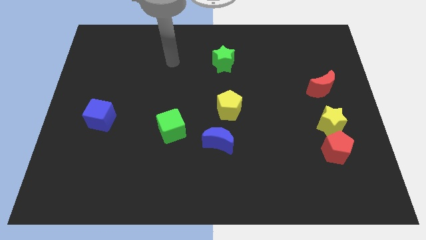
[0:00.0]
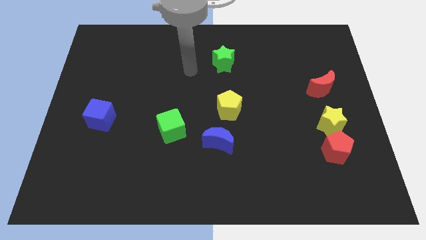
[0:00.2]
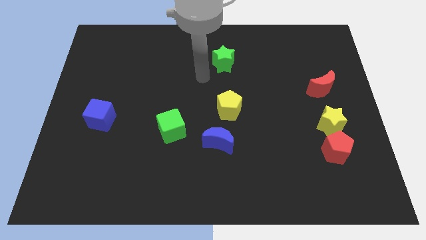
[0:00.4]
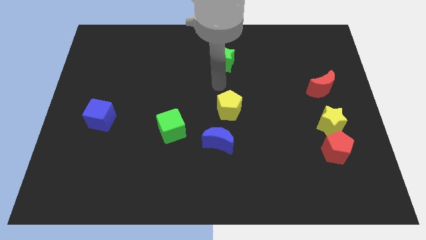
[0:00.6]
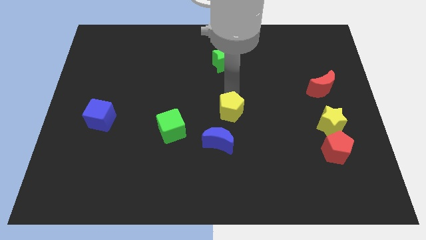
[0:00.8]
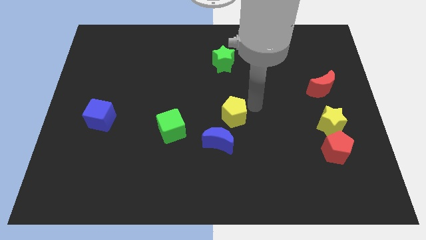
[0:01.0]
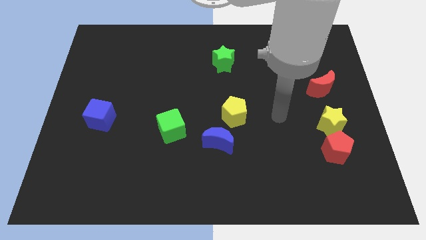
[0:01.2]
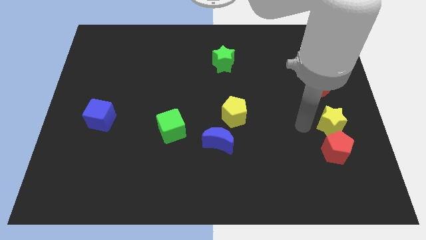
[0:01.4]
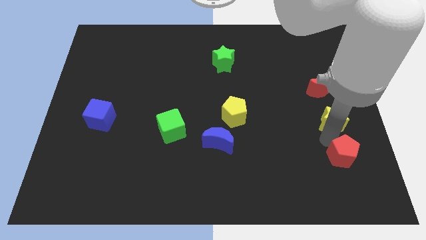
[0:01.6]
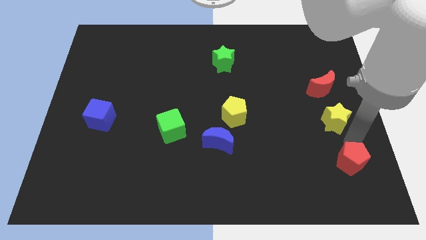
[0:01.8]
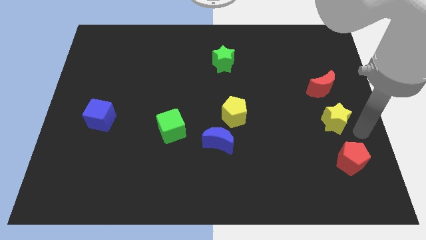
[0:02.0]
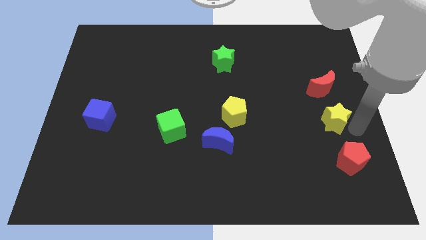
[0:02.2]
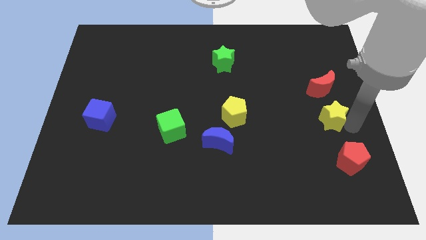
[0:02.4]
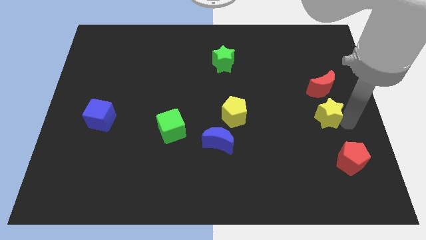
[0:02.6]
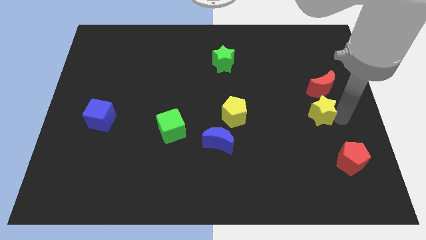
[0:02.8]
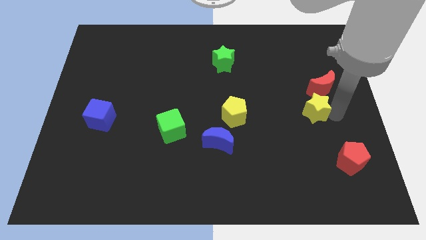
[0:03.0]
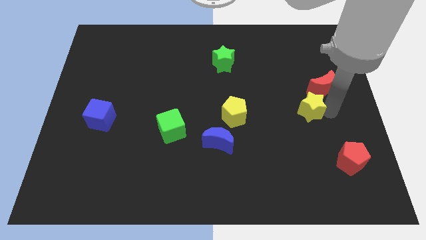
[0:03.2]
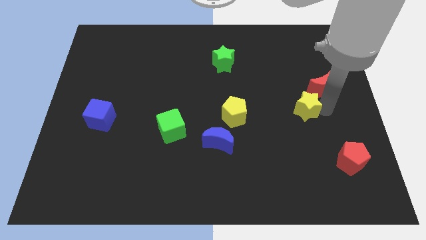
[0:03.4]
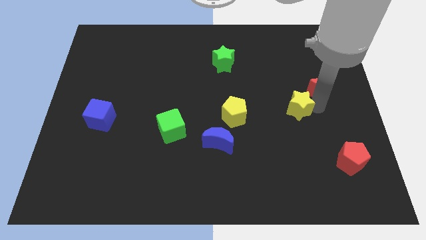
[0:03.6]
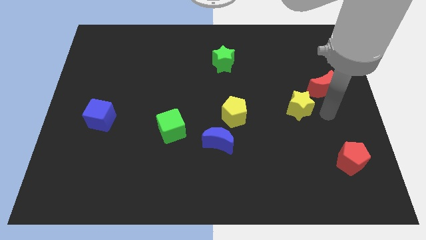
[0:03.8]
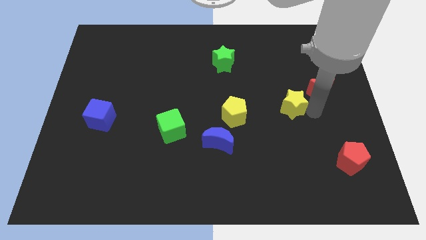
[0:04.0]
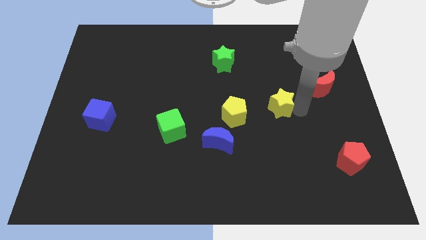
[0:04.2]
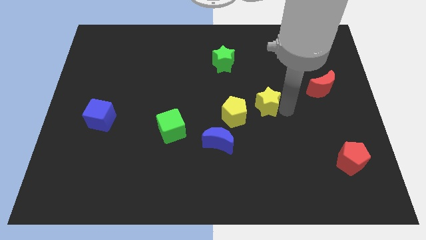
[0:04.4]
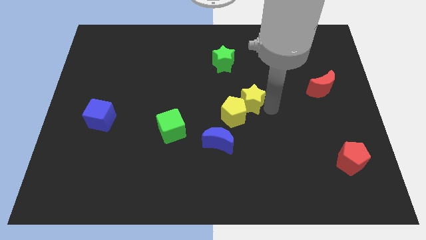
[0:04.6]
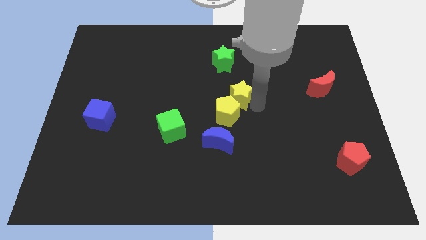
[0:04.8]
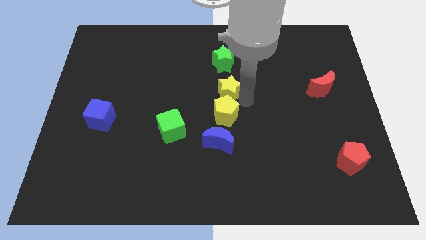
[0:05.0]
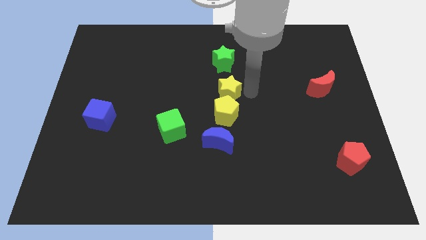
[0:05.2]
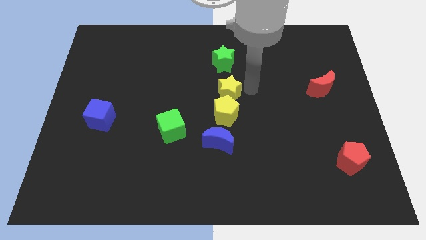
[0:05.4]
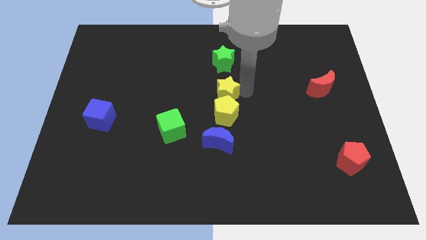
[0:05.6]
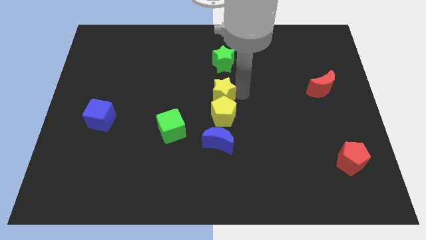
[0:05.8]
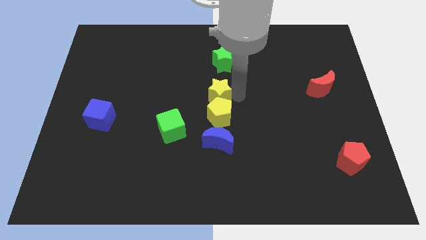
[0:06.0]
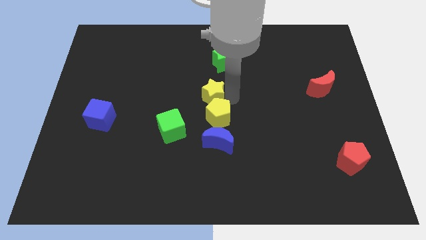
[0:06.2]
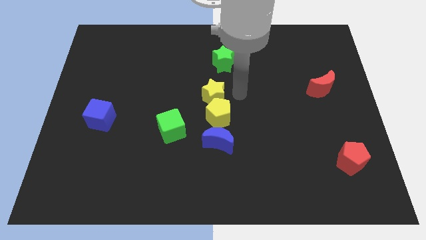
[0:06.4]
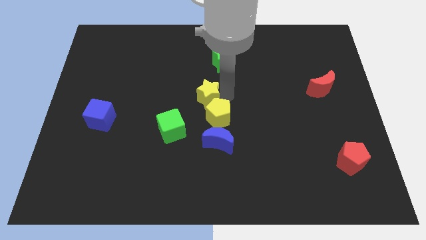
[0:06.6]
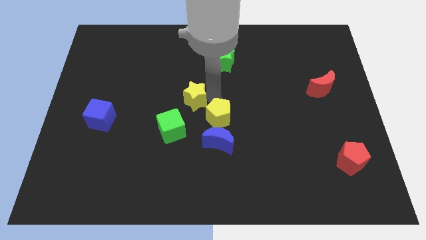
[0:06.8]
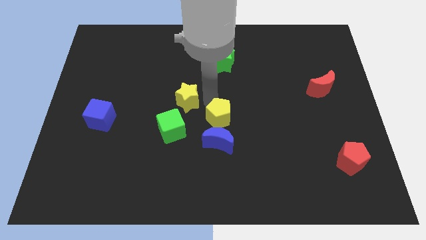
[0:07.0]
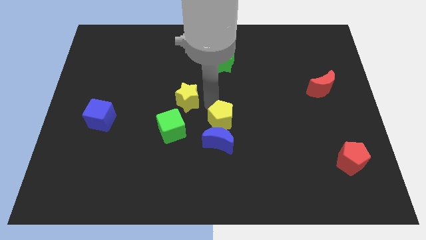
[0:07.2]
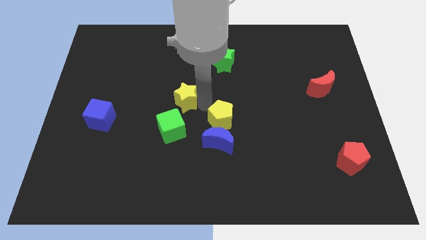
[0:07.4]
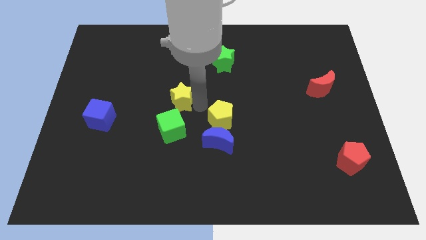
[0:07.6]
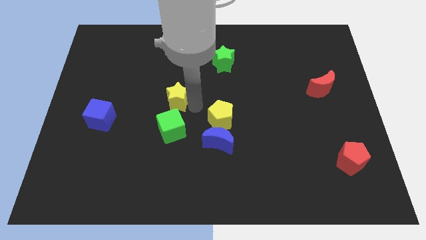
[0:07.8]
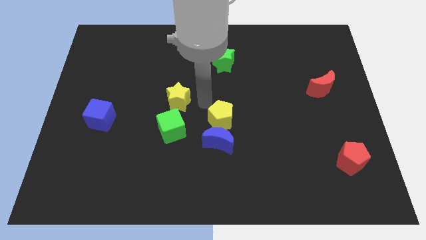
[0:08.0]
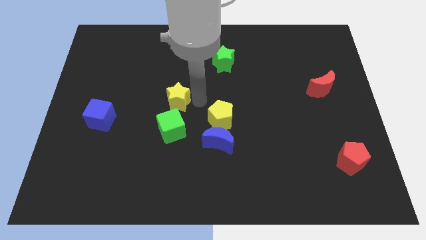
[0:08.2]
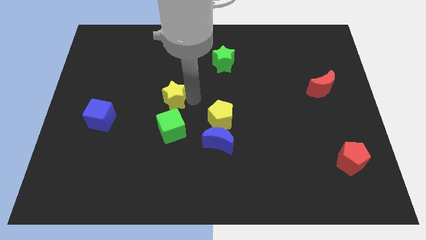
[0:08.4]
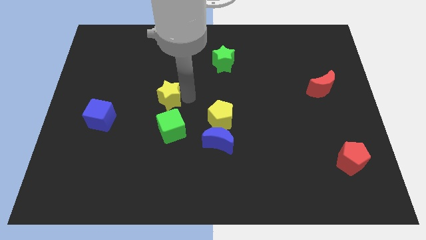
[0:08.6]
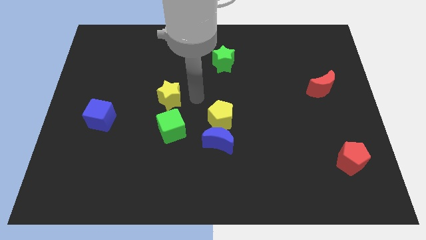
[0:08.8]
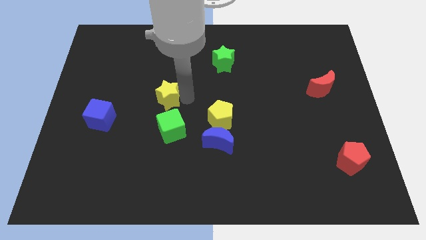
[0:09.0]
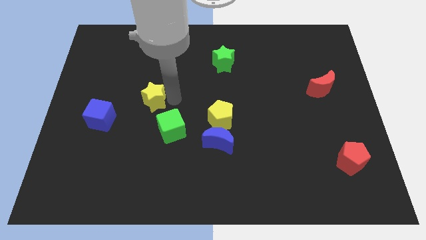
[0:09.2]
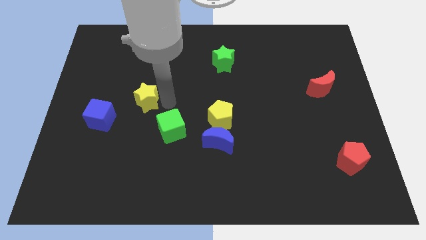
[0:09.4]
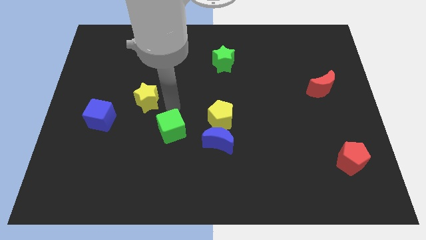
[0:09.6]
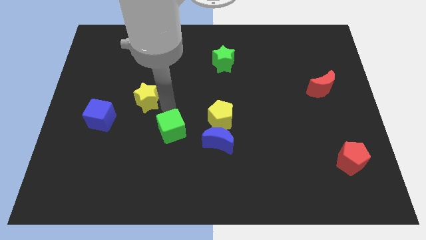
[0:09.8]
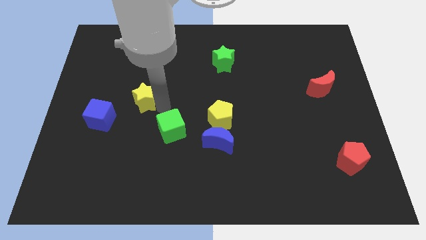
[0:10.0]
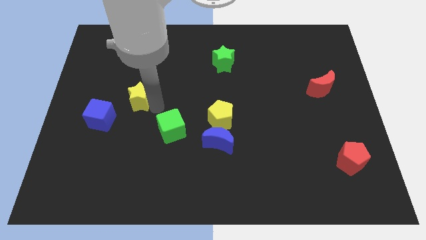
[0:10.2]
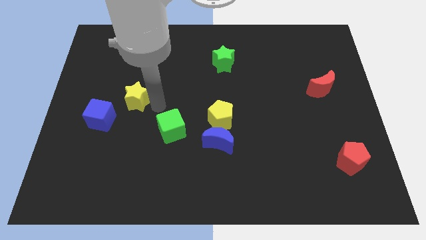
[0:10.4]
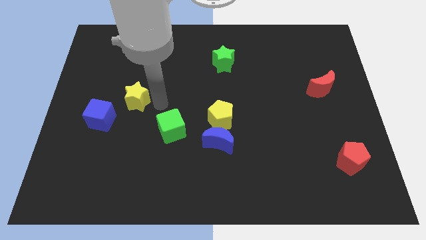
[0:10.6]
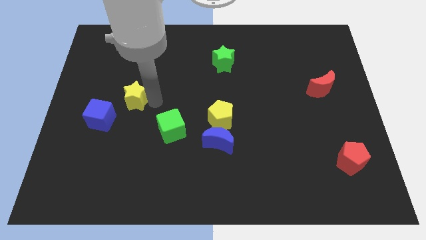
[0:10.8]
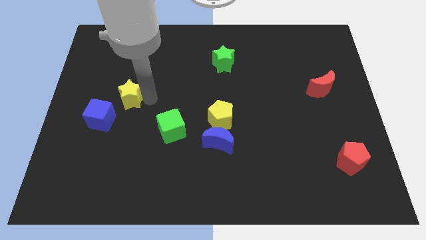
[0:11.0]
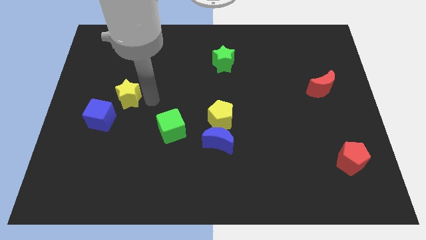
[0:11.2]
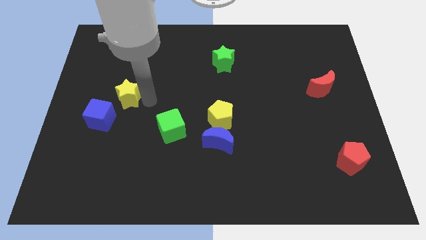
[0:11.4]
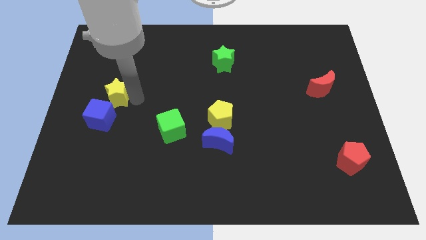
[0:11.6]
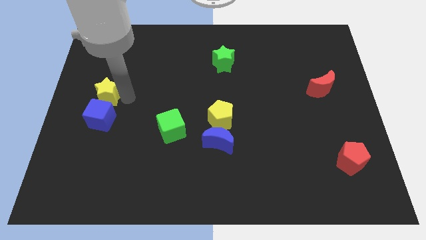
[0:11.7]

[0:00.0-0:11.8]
slide the yellow star to the center left

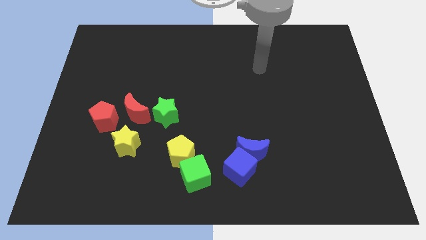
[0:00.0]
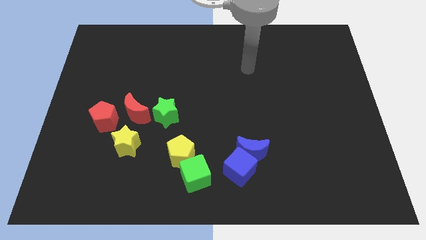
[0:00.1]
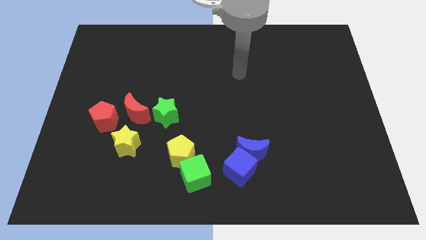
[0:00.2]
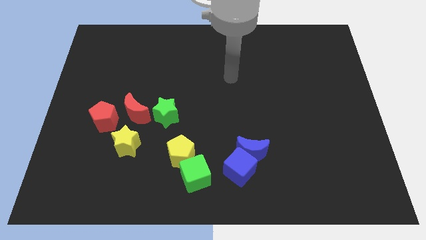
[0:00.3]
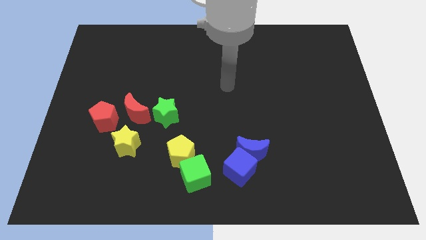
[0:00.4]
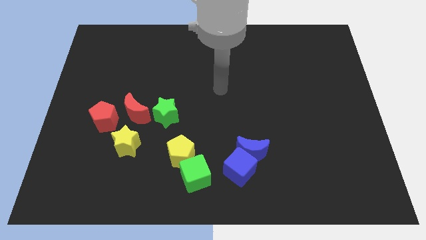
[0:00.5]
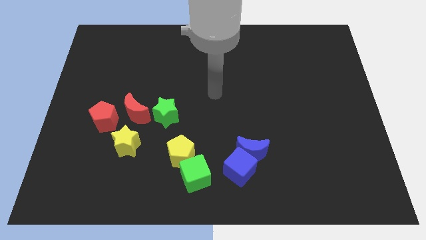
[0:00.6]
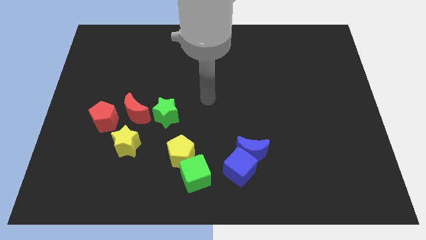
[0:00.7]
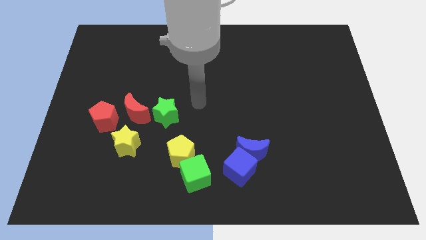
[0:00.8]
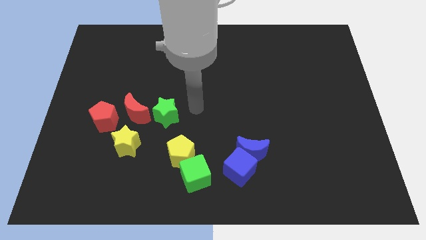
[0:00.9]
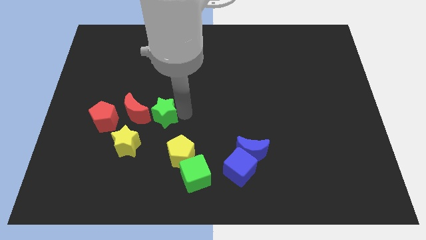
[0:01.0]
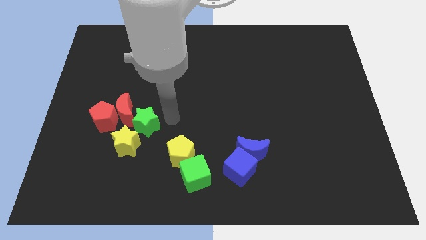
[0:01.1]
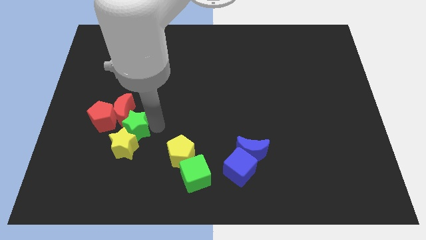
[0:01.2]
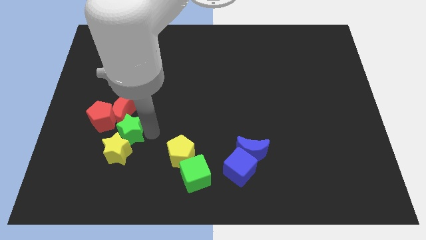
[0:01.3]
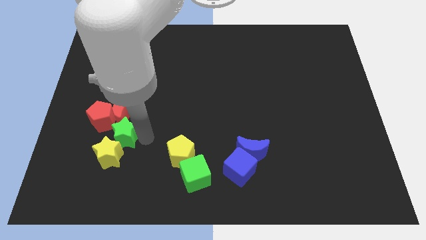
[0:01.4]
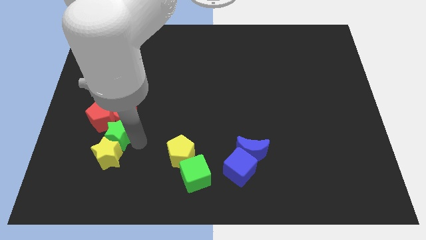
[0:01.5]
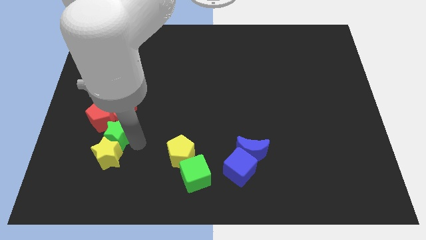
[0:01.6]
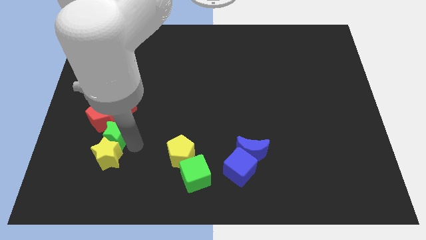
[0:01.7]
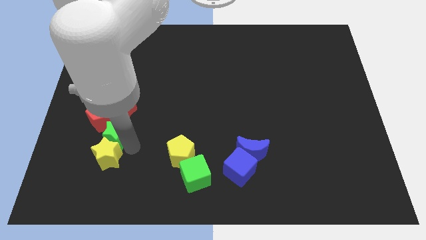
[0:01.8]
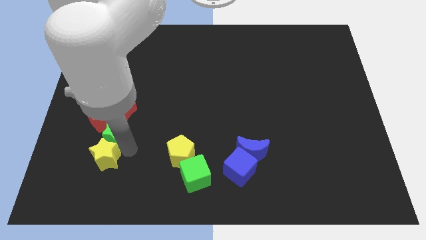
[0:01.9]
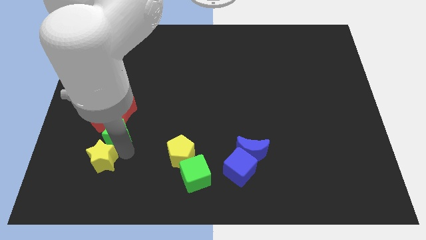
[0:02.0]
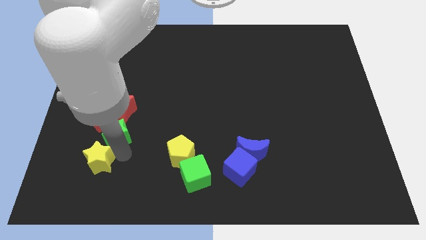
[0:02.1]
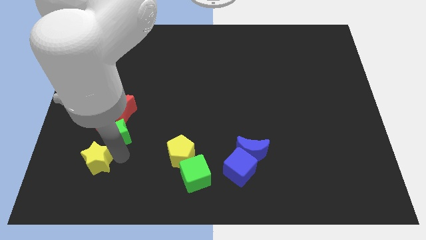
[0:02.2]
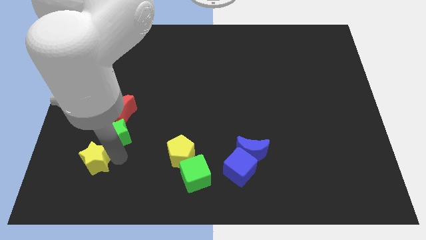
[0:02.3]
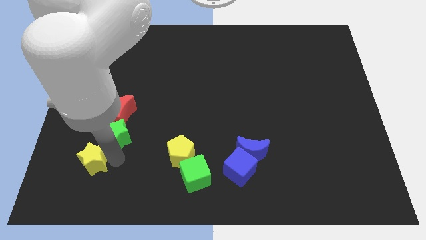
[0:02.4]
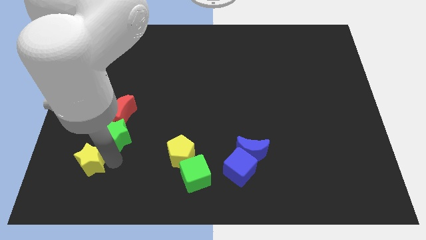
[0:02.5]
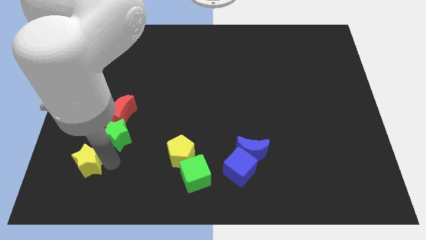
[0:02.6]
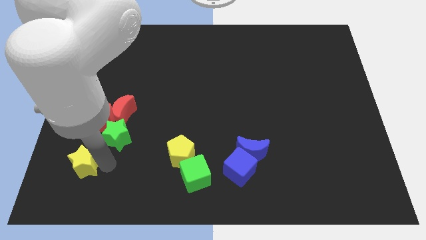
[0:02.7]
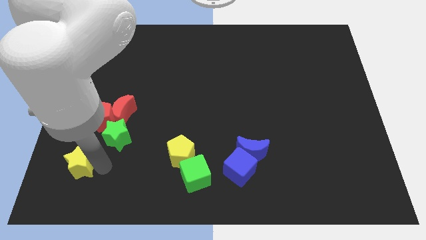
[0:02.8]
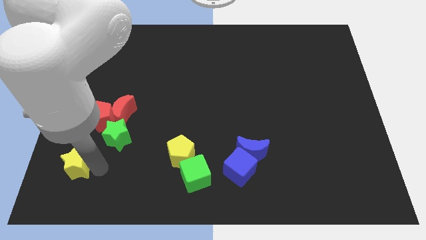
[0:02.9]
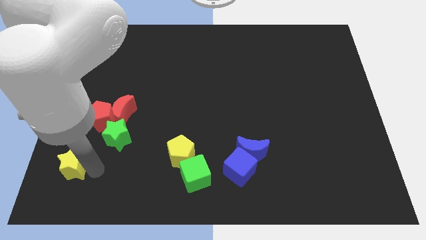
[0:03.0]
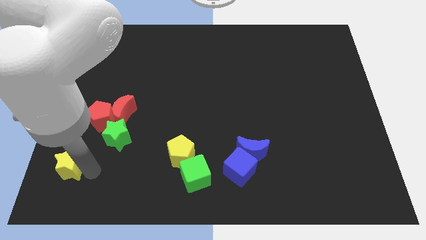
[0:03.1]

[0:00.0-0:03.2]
move the yellow star to the lower left corner
